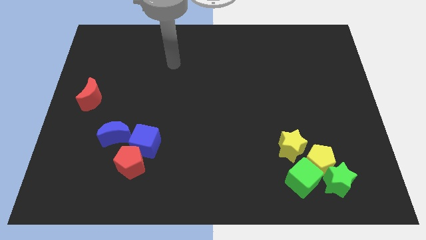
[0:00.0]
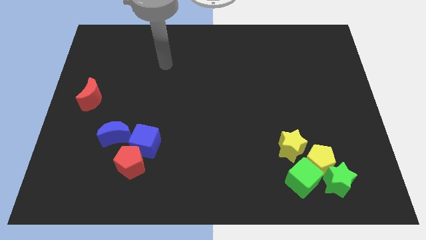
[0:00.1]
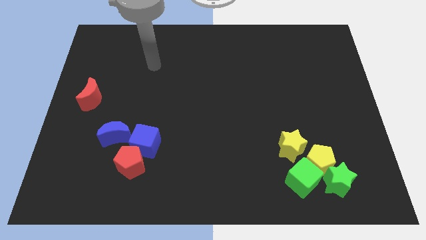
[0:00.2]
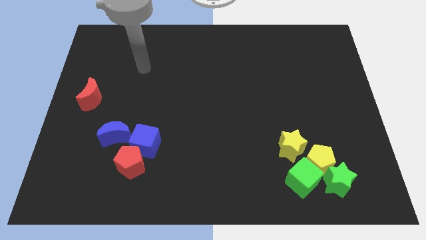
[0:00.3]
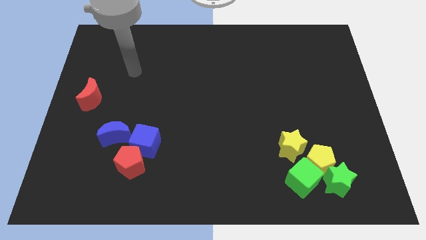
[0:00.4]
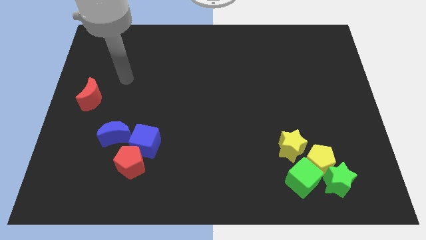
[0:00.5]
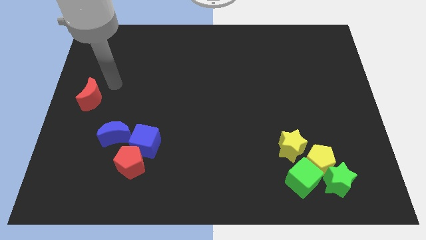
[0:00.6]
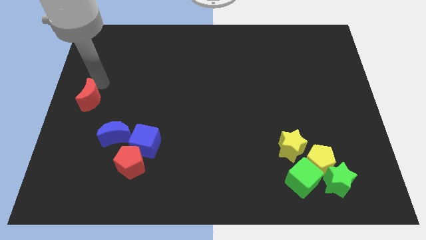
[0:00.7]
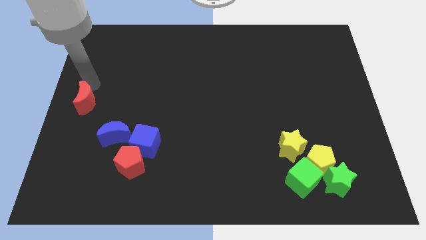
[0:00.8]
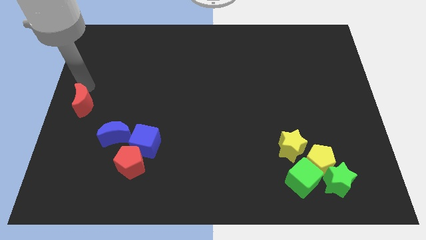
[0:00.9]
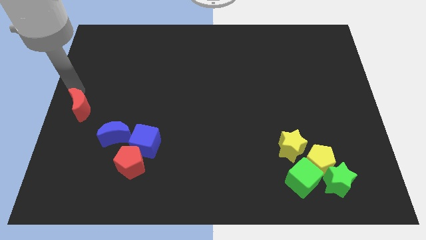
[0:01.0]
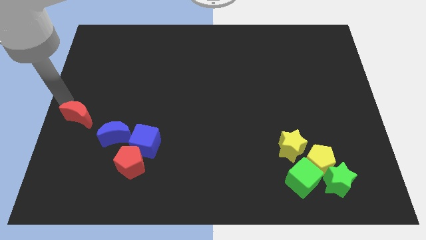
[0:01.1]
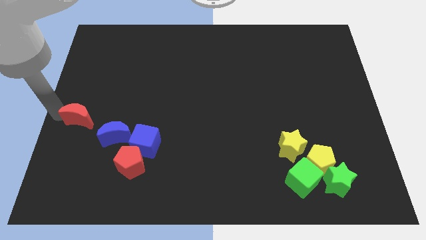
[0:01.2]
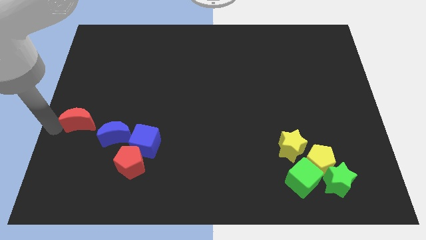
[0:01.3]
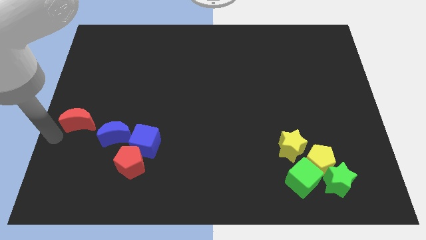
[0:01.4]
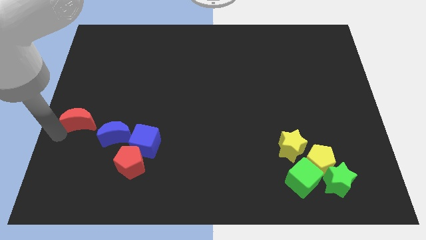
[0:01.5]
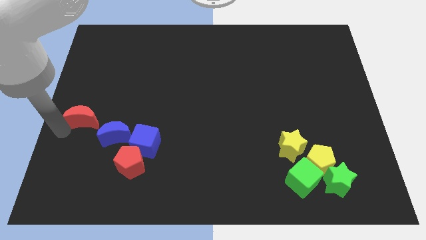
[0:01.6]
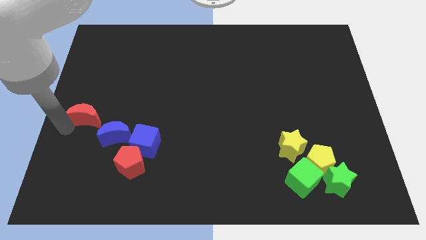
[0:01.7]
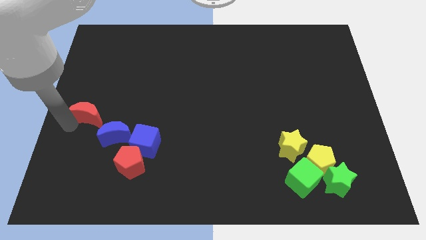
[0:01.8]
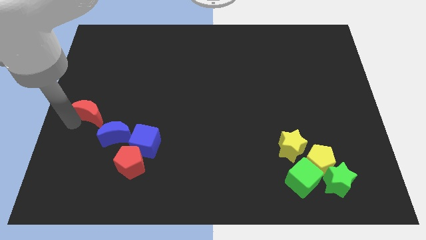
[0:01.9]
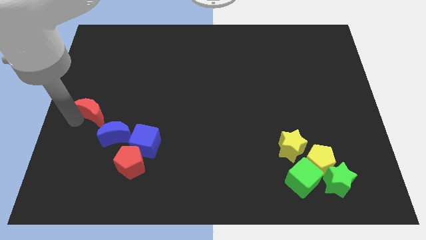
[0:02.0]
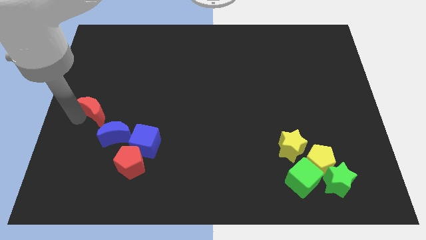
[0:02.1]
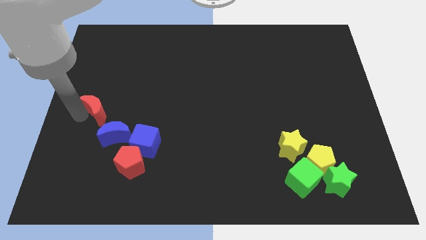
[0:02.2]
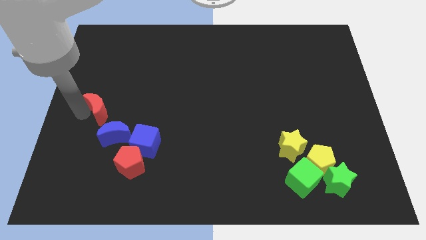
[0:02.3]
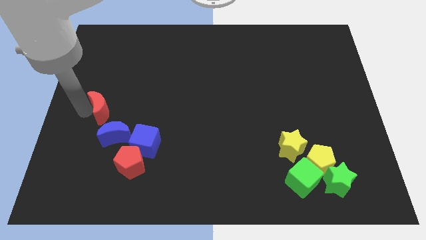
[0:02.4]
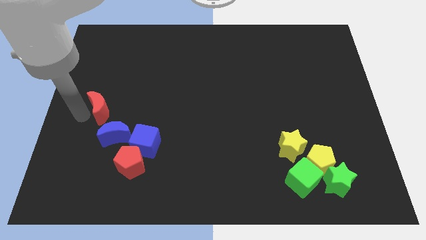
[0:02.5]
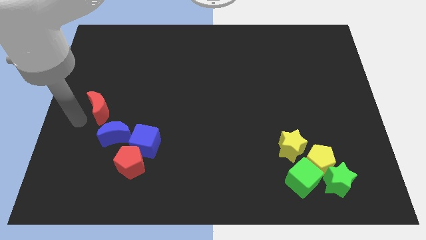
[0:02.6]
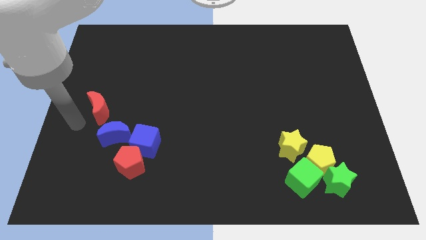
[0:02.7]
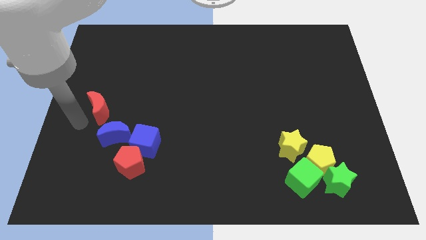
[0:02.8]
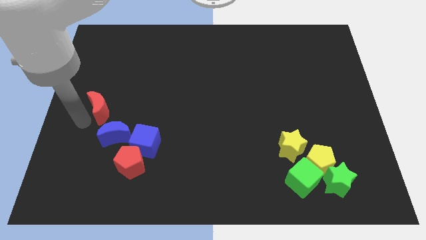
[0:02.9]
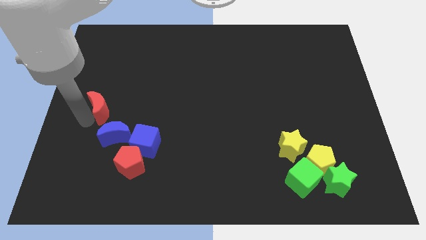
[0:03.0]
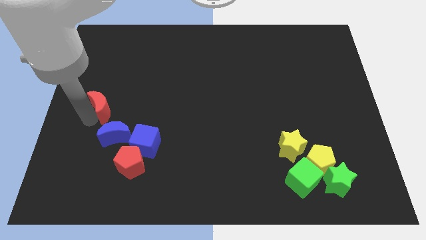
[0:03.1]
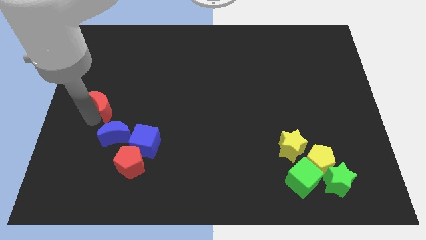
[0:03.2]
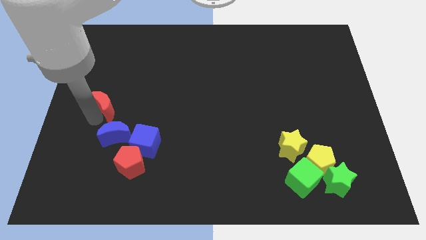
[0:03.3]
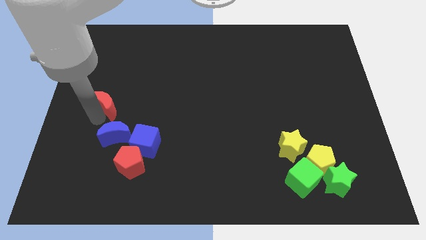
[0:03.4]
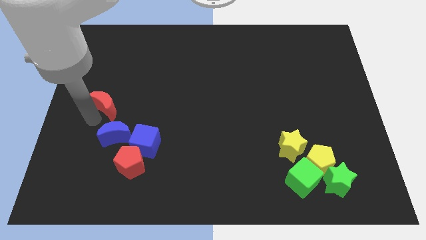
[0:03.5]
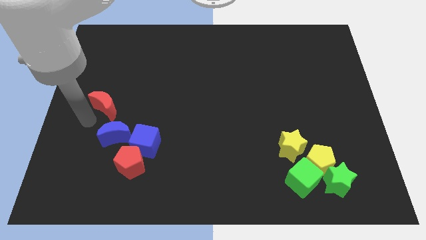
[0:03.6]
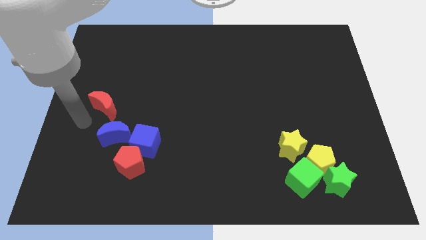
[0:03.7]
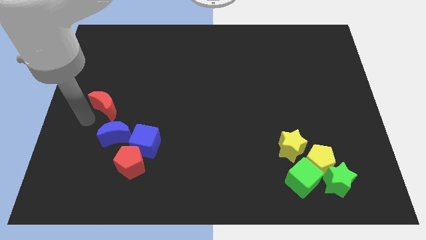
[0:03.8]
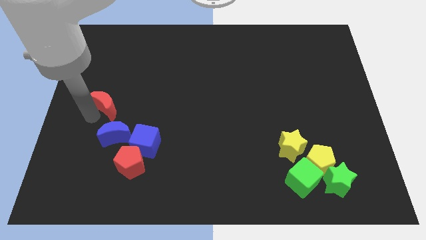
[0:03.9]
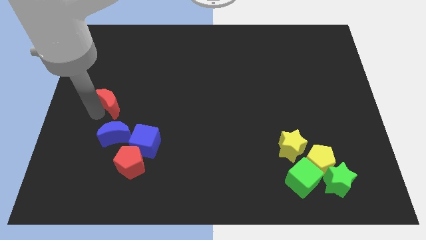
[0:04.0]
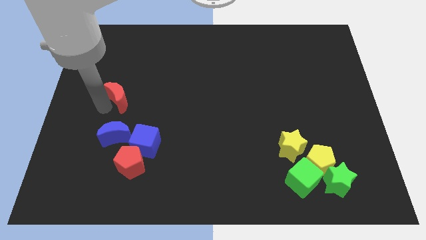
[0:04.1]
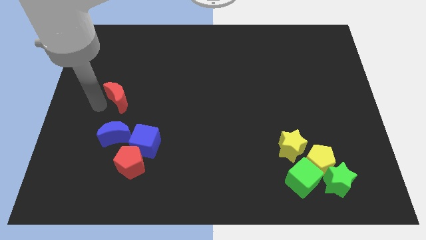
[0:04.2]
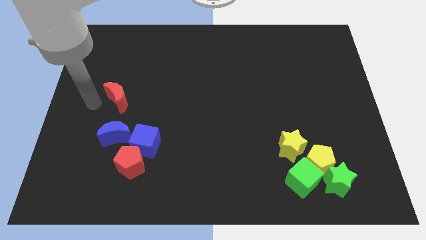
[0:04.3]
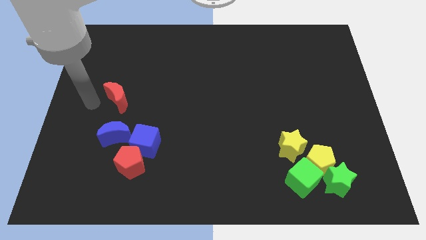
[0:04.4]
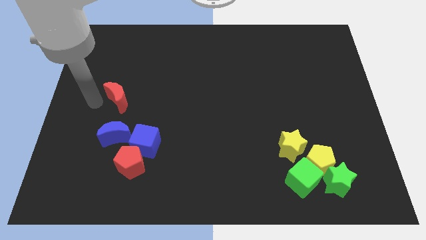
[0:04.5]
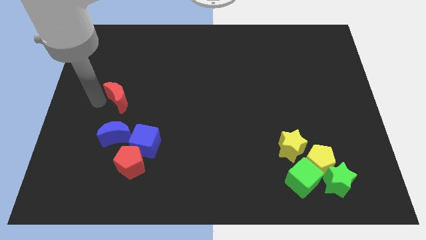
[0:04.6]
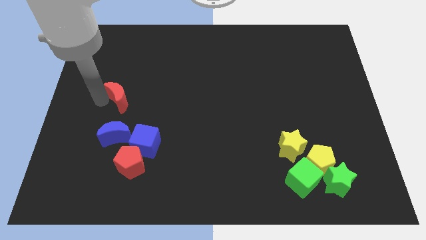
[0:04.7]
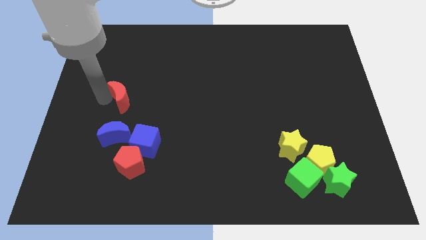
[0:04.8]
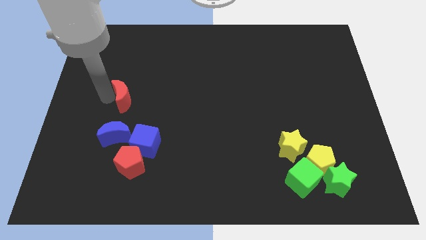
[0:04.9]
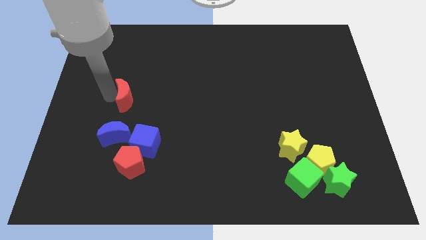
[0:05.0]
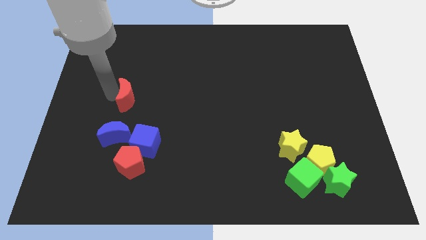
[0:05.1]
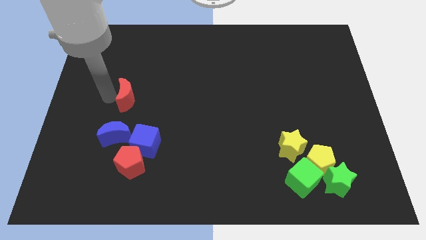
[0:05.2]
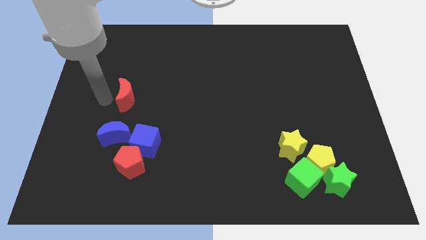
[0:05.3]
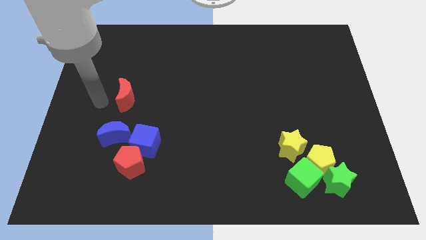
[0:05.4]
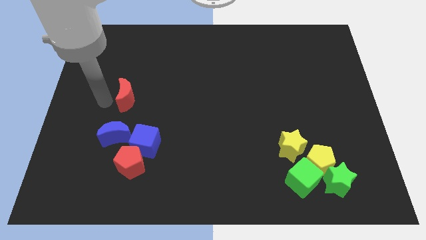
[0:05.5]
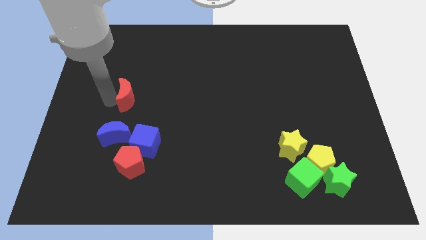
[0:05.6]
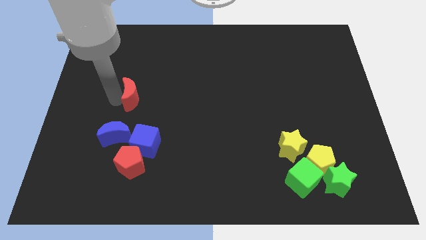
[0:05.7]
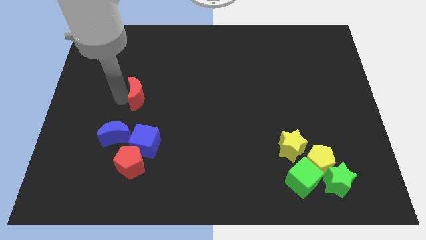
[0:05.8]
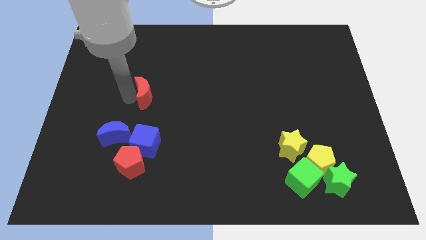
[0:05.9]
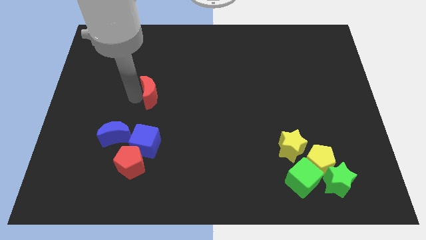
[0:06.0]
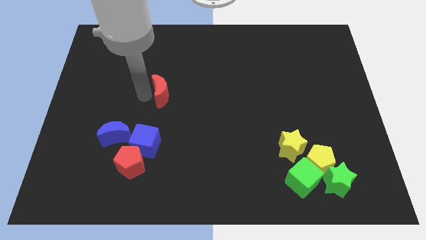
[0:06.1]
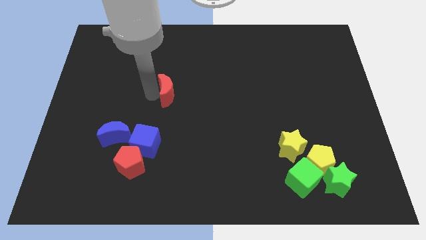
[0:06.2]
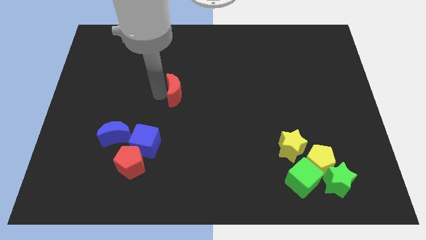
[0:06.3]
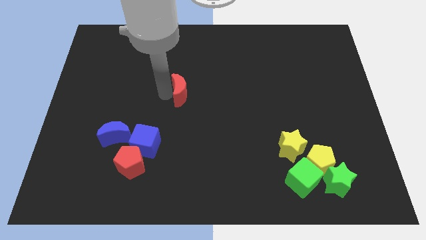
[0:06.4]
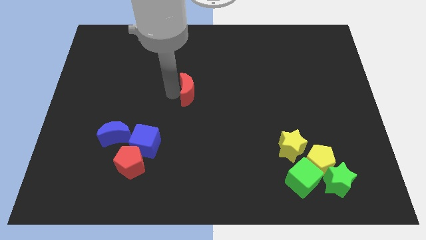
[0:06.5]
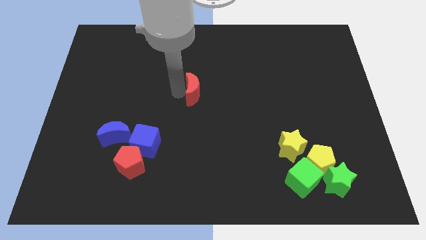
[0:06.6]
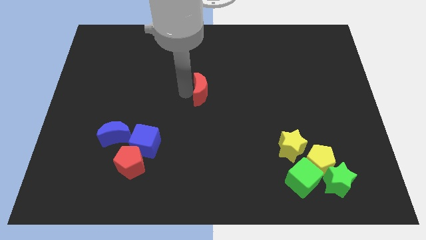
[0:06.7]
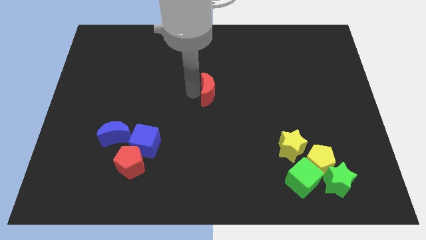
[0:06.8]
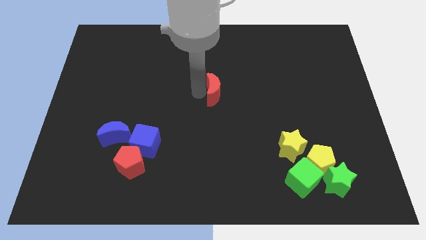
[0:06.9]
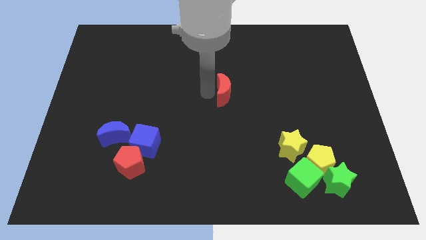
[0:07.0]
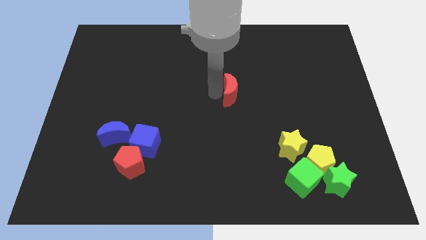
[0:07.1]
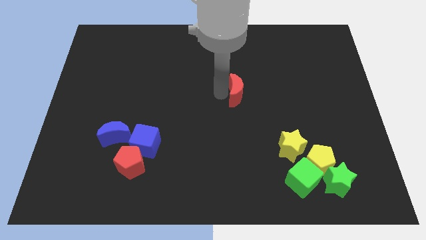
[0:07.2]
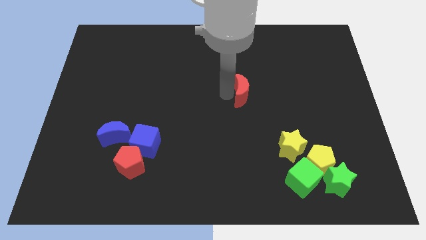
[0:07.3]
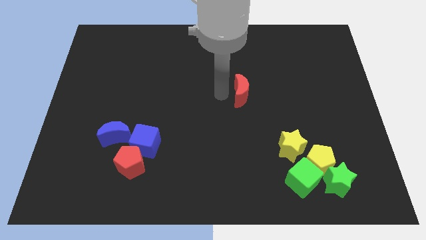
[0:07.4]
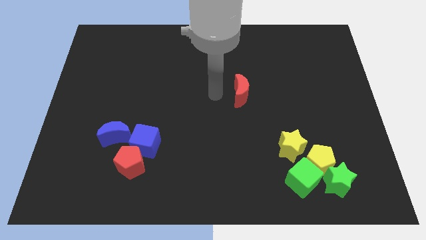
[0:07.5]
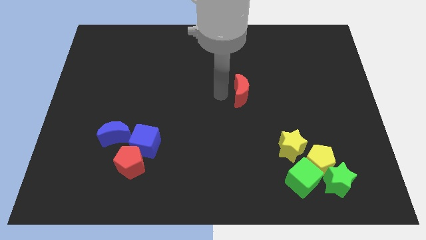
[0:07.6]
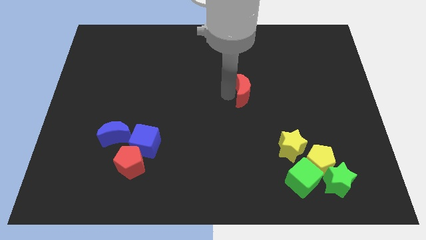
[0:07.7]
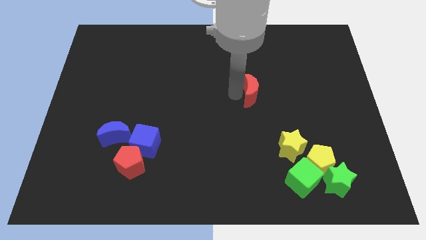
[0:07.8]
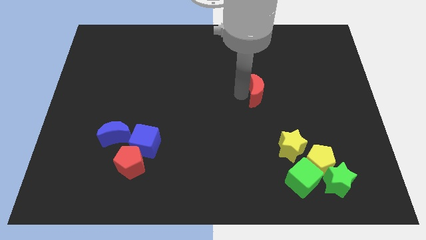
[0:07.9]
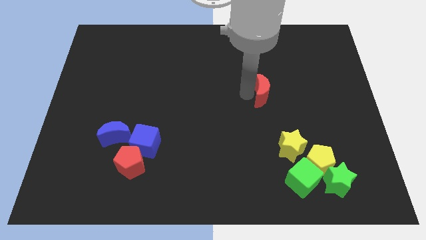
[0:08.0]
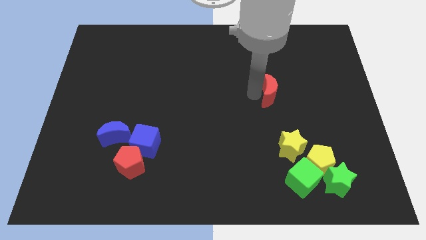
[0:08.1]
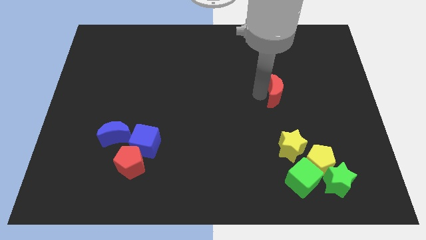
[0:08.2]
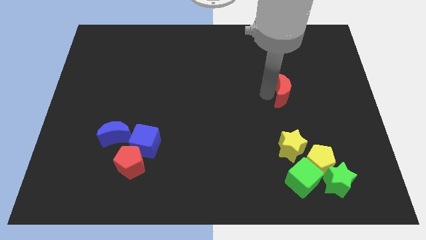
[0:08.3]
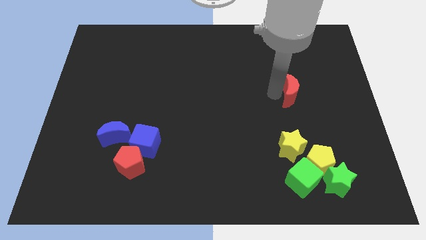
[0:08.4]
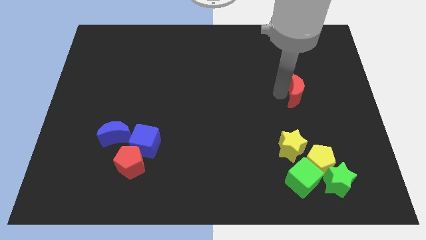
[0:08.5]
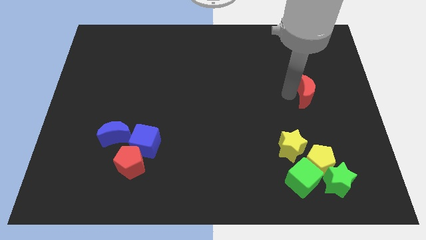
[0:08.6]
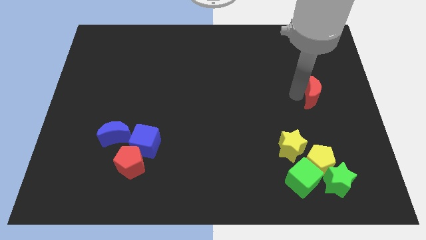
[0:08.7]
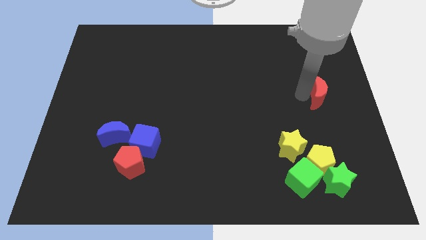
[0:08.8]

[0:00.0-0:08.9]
put the red moon to the center right
